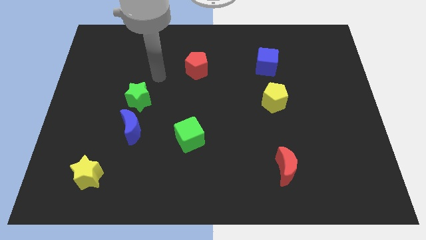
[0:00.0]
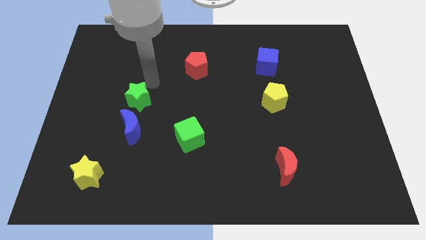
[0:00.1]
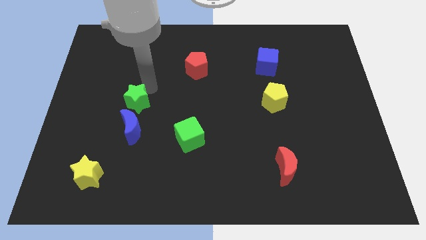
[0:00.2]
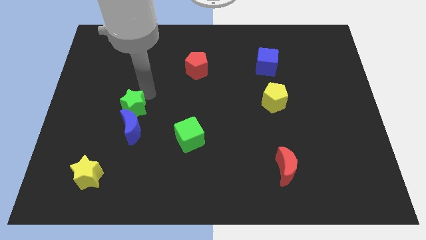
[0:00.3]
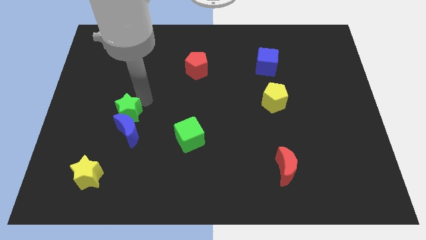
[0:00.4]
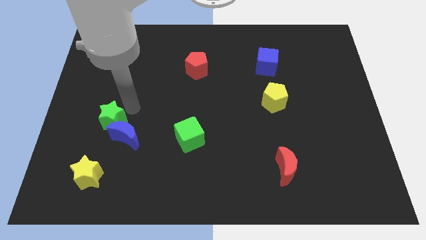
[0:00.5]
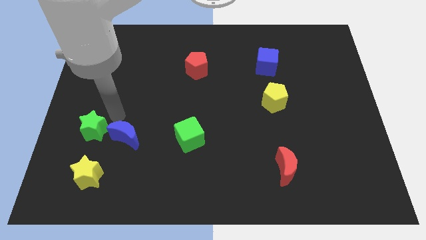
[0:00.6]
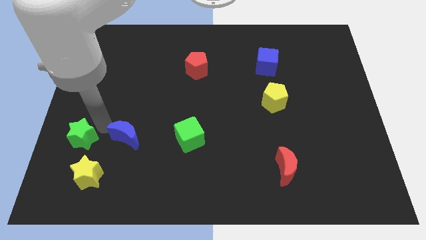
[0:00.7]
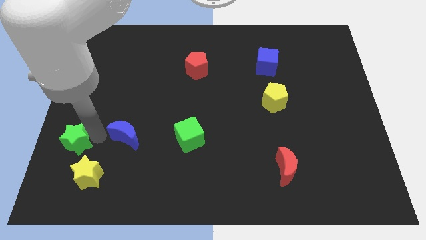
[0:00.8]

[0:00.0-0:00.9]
pull the blue moon apart from the green star

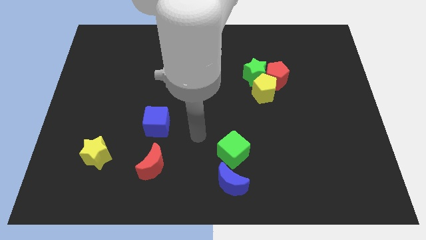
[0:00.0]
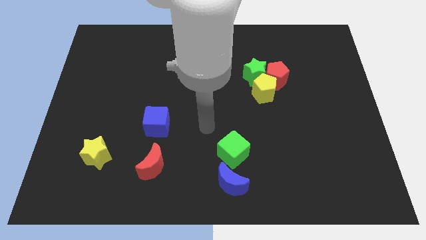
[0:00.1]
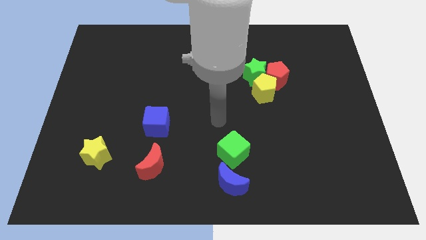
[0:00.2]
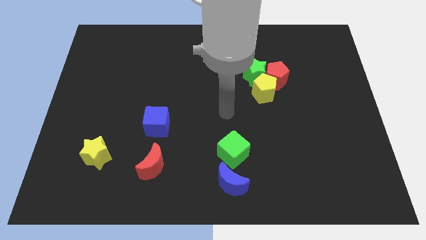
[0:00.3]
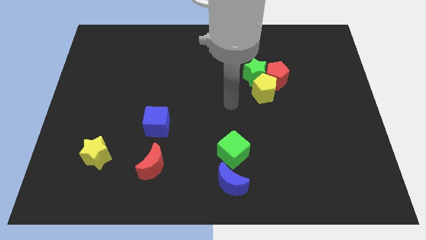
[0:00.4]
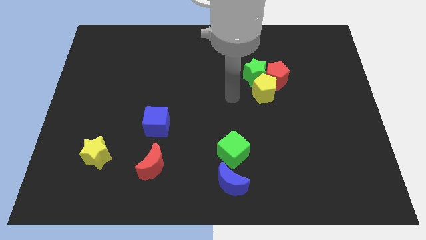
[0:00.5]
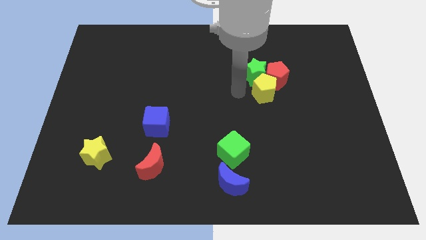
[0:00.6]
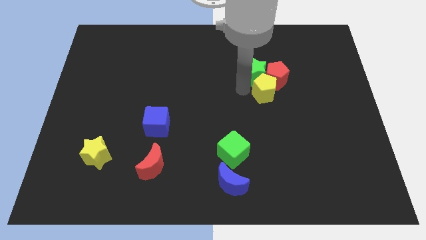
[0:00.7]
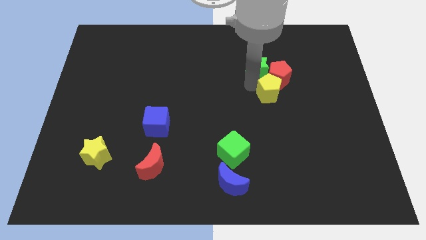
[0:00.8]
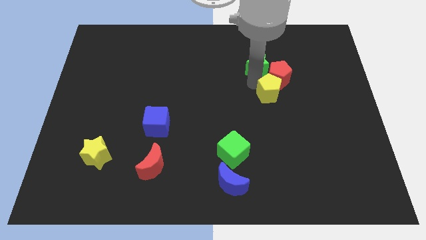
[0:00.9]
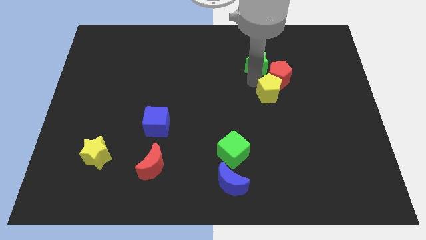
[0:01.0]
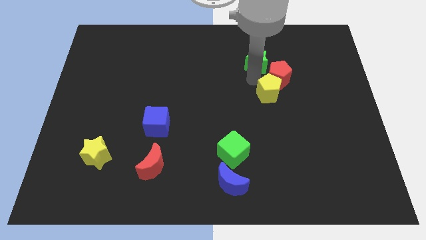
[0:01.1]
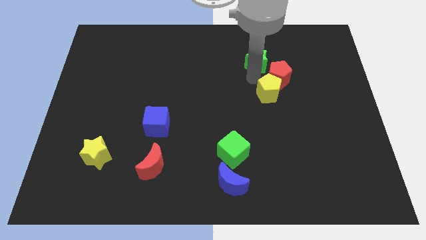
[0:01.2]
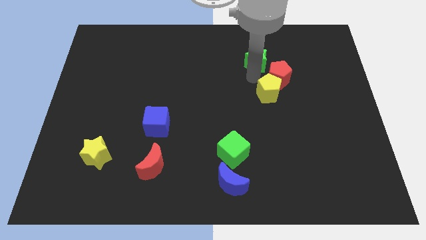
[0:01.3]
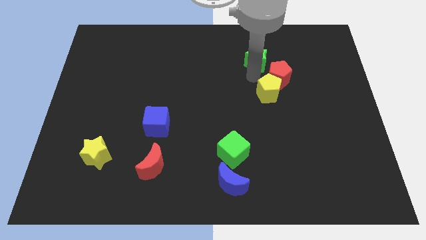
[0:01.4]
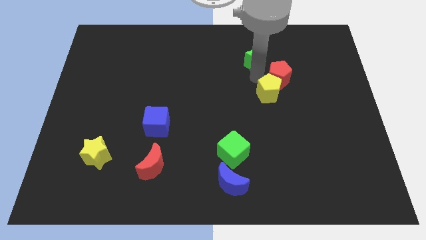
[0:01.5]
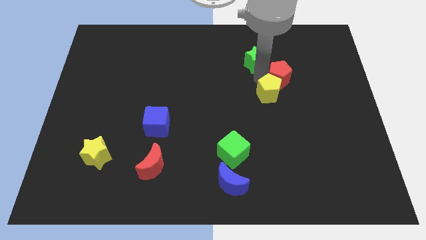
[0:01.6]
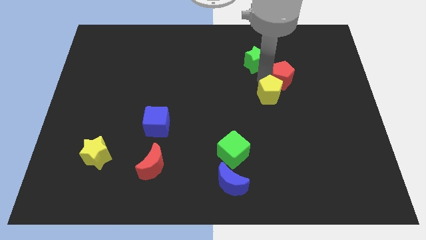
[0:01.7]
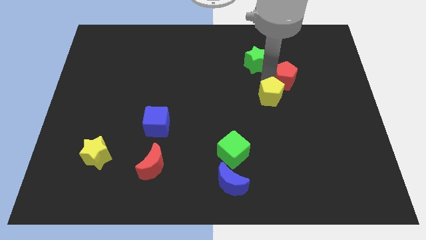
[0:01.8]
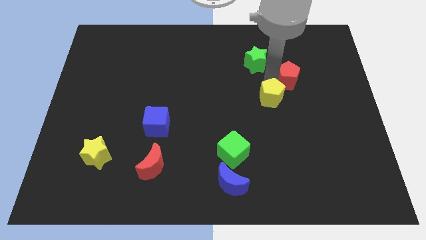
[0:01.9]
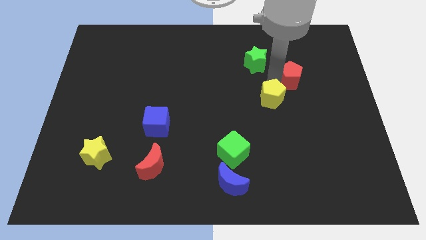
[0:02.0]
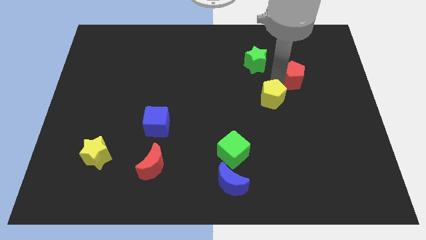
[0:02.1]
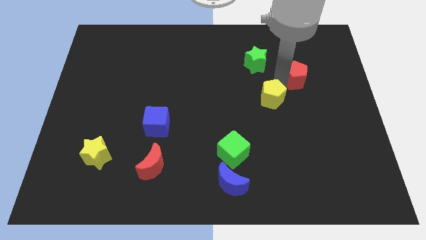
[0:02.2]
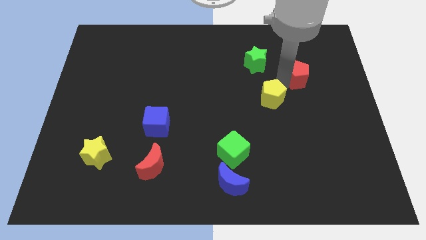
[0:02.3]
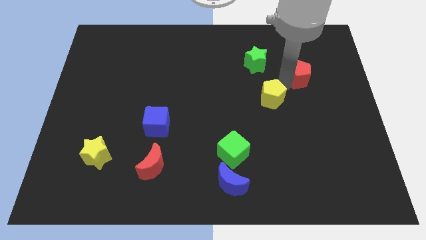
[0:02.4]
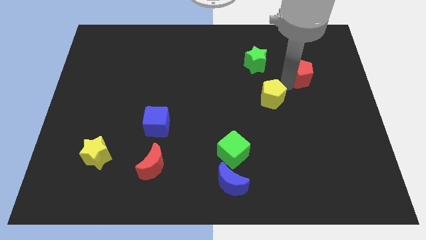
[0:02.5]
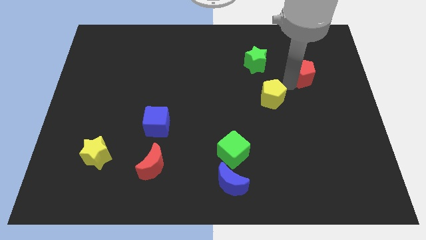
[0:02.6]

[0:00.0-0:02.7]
pull the red pentagon apart from the yellow pentagon and green star

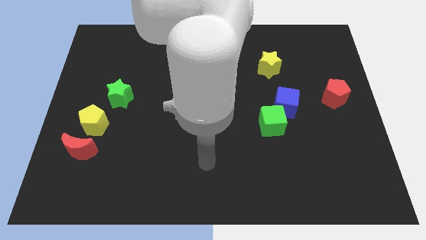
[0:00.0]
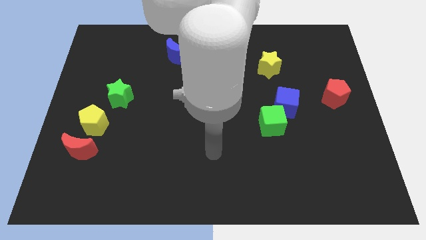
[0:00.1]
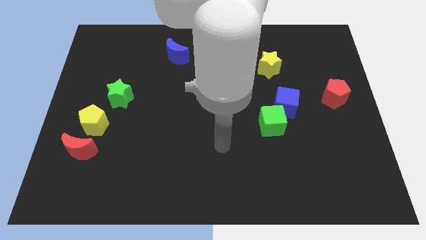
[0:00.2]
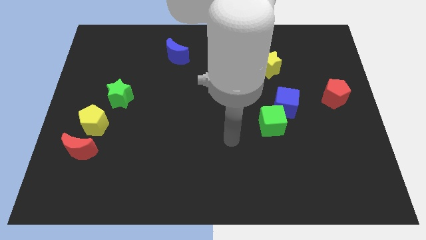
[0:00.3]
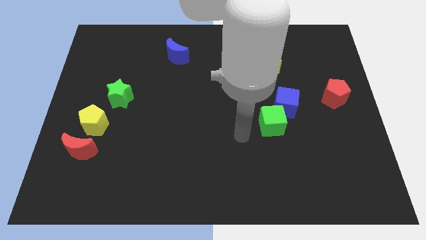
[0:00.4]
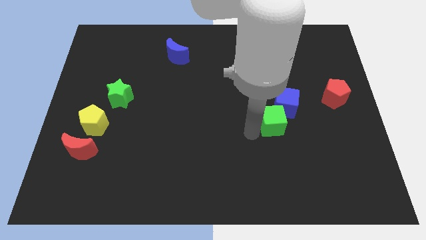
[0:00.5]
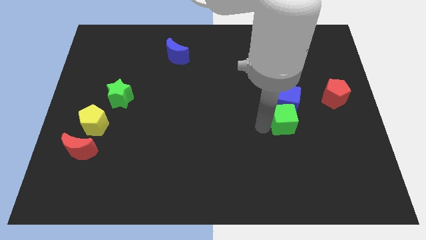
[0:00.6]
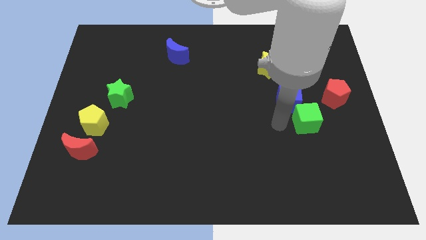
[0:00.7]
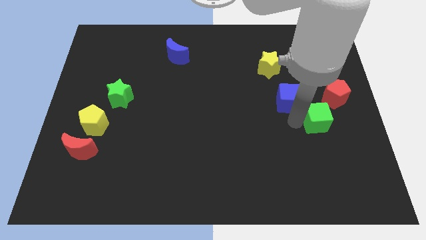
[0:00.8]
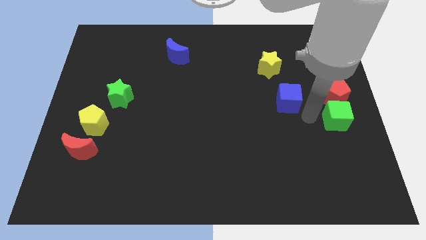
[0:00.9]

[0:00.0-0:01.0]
move the blue cube away from the green cube

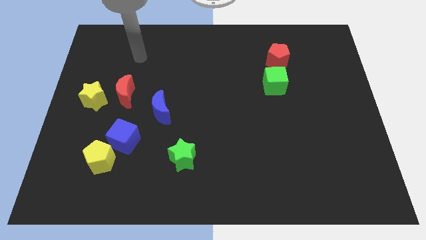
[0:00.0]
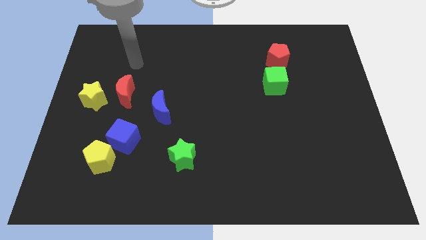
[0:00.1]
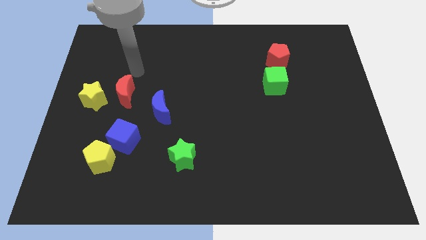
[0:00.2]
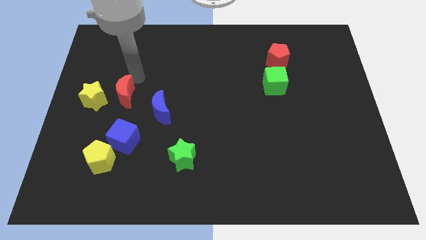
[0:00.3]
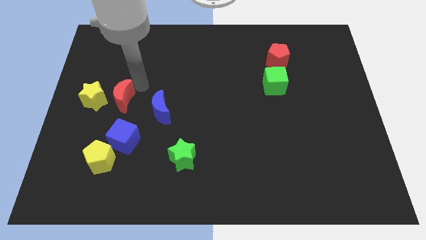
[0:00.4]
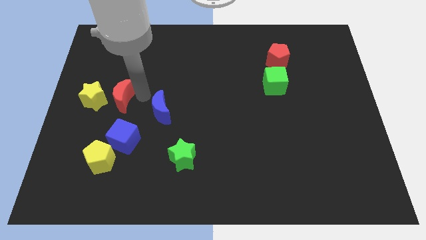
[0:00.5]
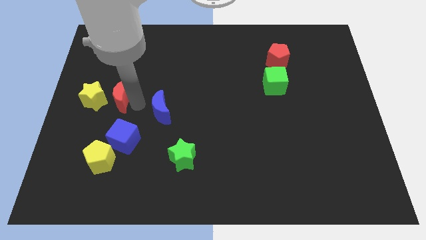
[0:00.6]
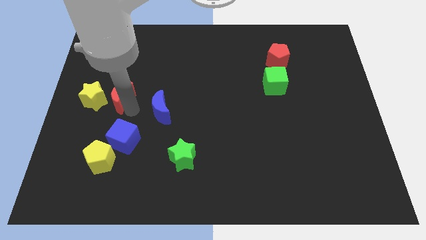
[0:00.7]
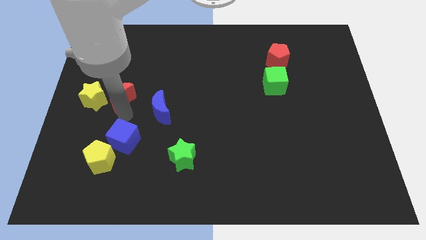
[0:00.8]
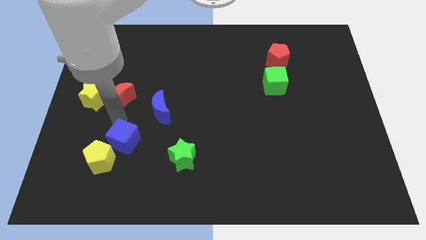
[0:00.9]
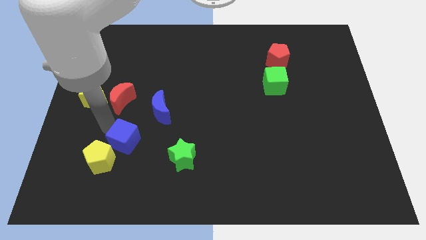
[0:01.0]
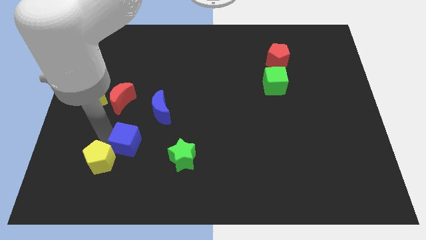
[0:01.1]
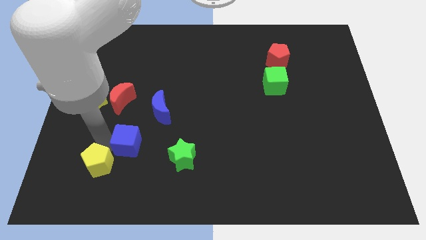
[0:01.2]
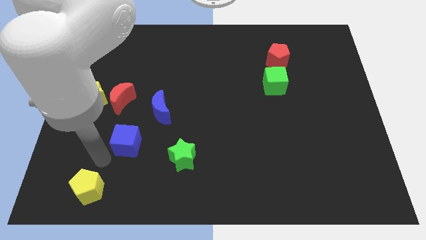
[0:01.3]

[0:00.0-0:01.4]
separate the blue cube from the yellow pentagon

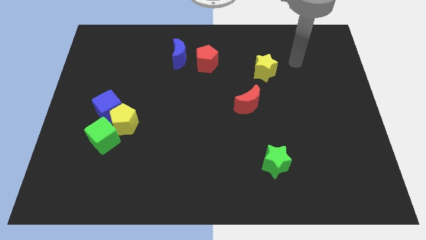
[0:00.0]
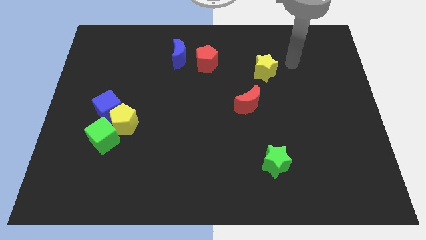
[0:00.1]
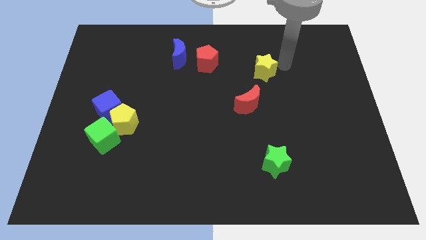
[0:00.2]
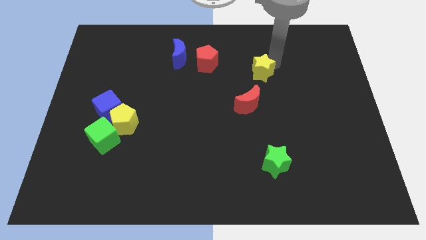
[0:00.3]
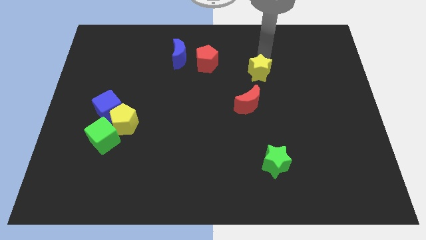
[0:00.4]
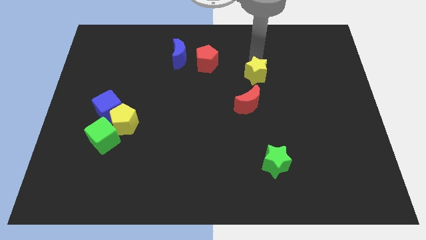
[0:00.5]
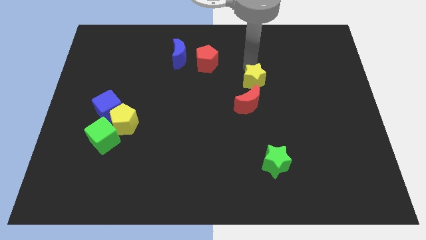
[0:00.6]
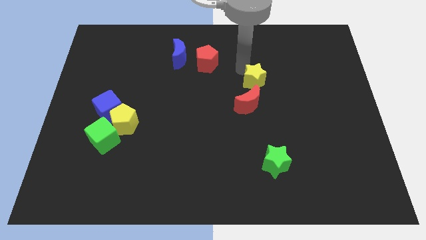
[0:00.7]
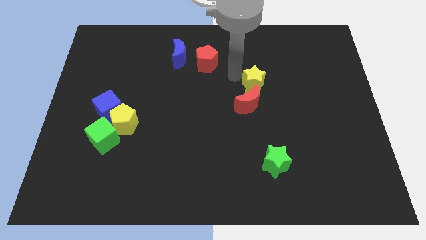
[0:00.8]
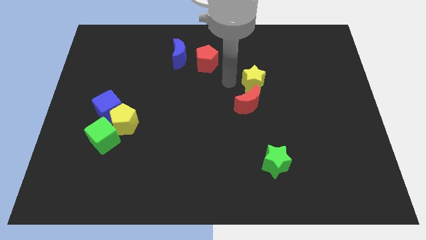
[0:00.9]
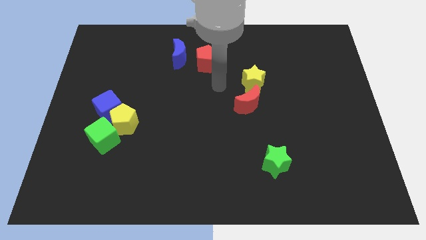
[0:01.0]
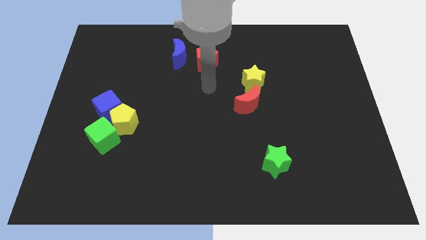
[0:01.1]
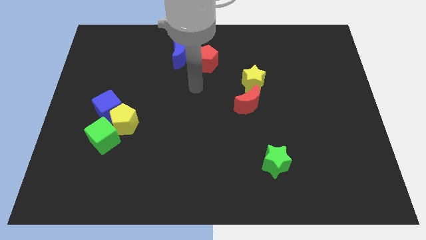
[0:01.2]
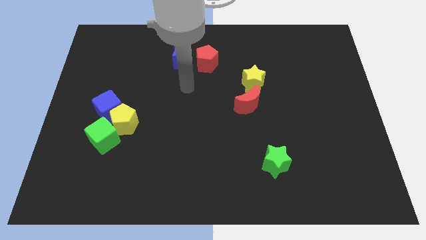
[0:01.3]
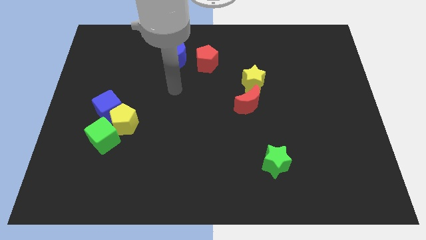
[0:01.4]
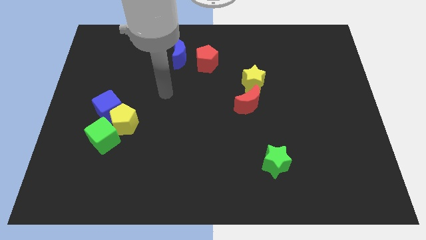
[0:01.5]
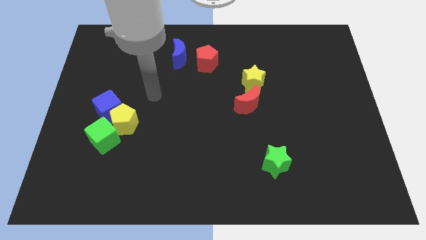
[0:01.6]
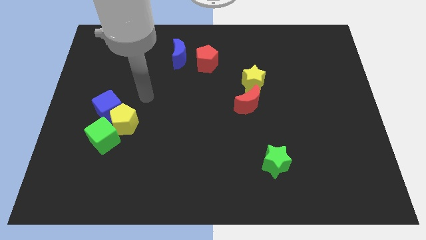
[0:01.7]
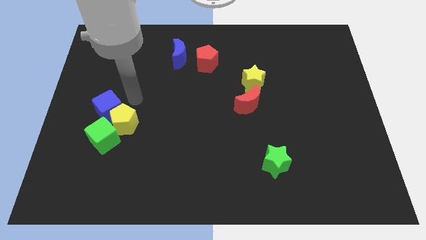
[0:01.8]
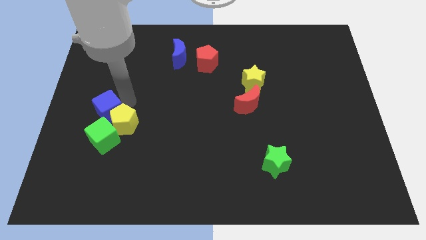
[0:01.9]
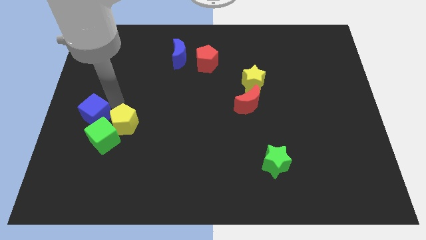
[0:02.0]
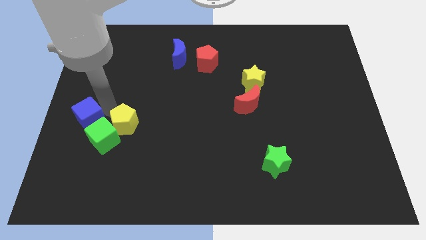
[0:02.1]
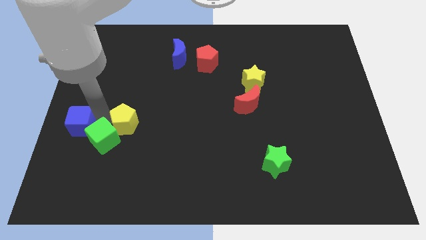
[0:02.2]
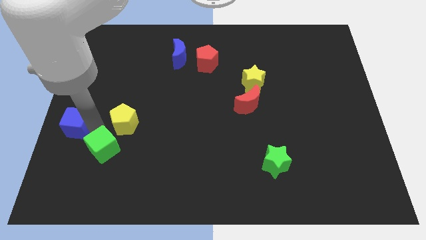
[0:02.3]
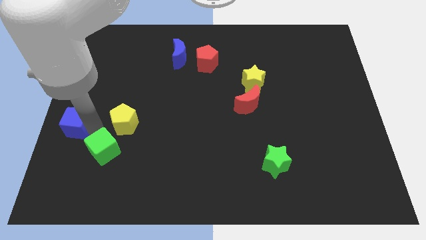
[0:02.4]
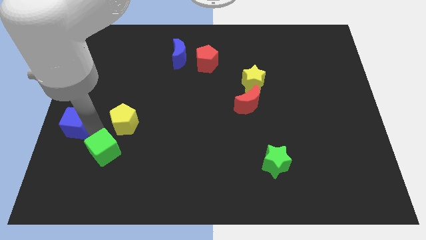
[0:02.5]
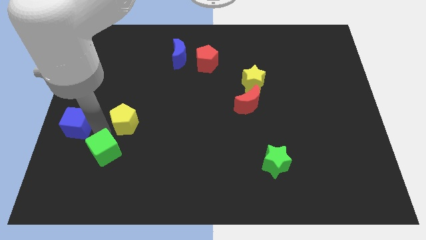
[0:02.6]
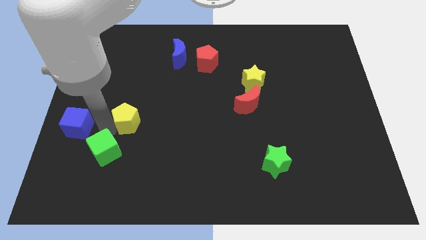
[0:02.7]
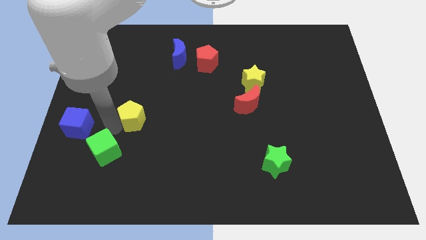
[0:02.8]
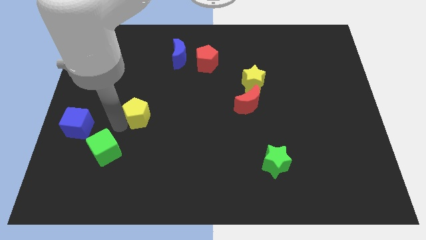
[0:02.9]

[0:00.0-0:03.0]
move the yellow pentagon away from the blue cube and green cube

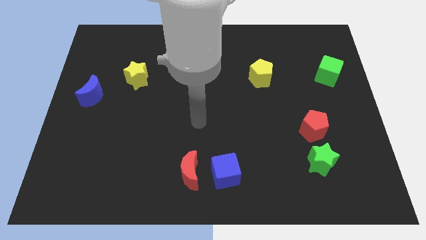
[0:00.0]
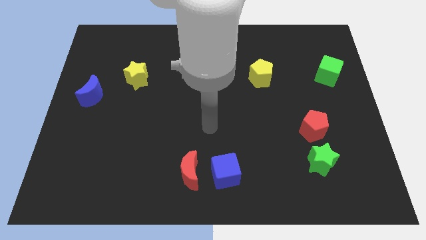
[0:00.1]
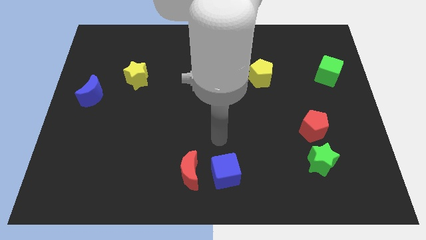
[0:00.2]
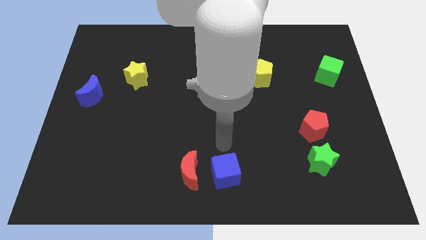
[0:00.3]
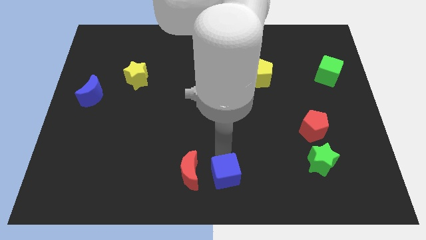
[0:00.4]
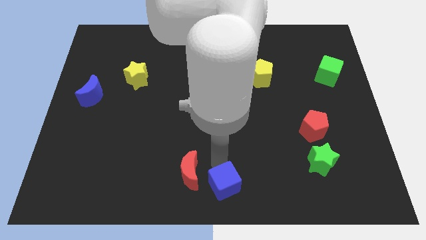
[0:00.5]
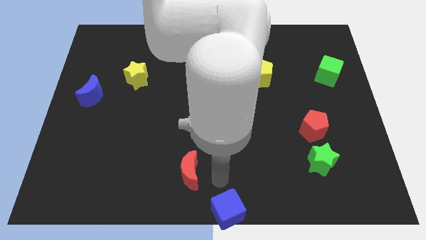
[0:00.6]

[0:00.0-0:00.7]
separate the red moon from the blue cube
